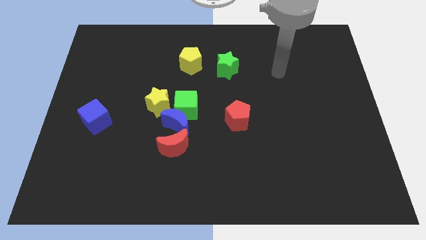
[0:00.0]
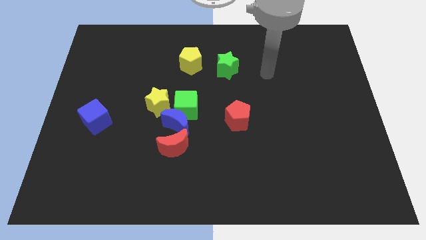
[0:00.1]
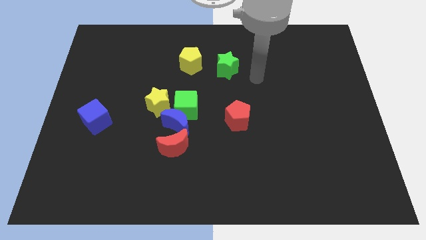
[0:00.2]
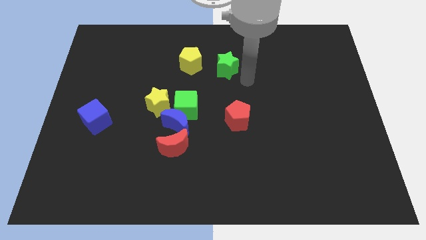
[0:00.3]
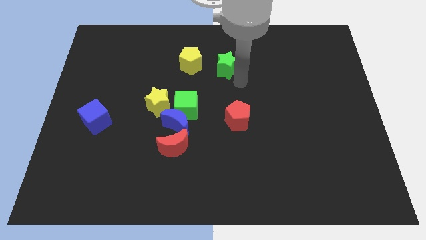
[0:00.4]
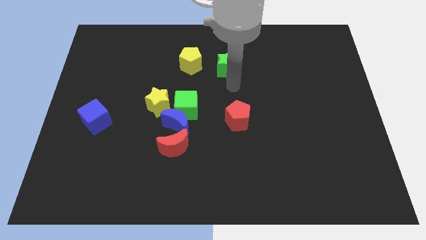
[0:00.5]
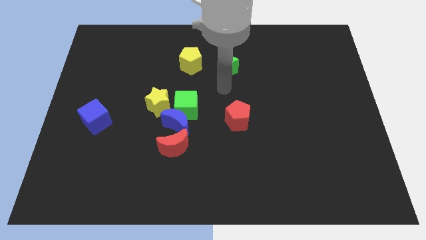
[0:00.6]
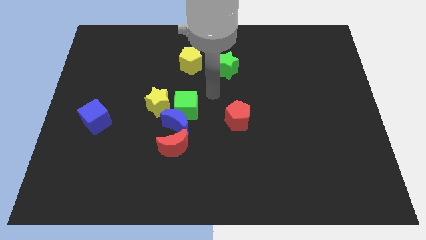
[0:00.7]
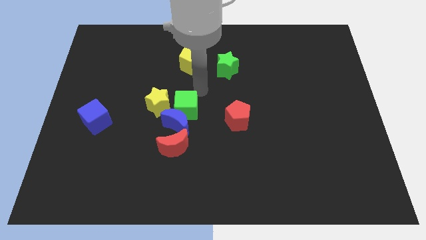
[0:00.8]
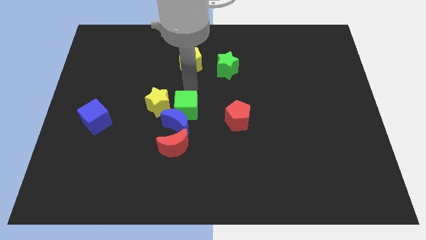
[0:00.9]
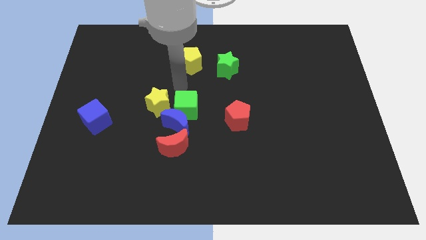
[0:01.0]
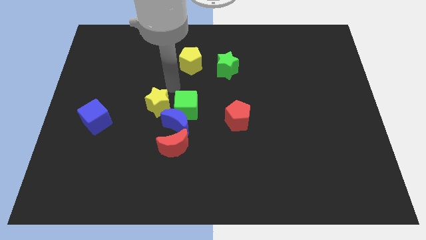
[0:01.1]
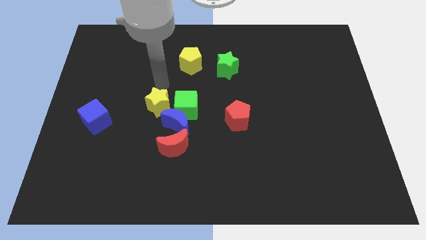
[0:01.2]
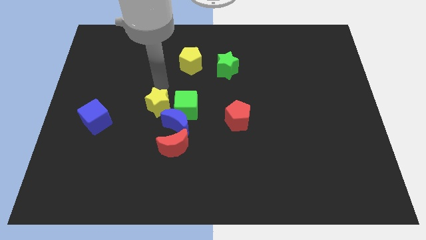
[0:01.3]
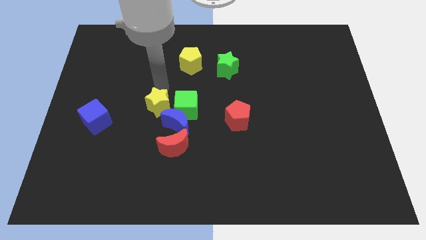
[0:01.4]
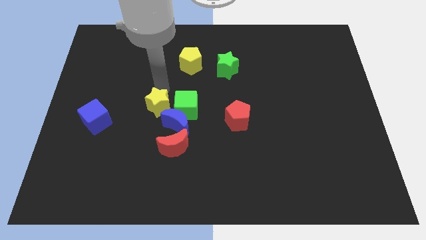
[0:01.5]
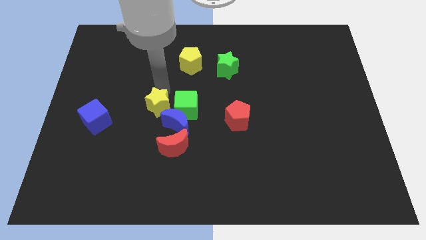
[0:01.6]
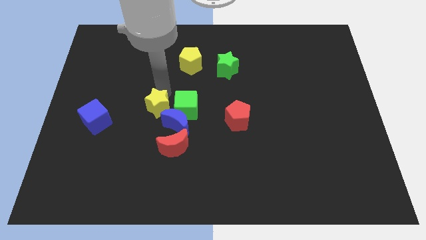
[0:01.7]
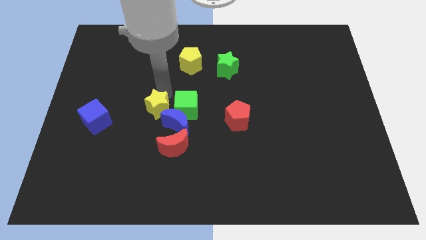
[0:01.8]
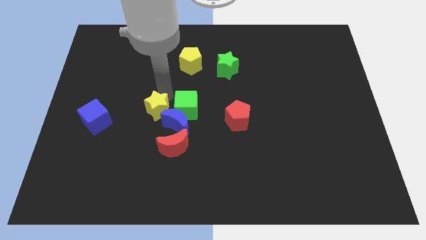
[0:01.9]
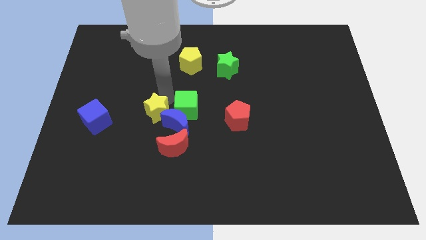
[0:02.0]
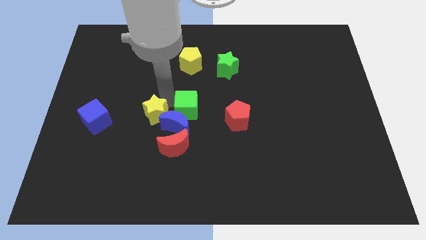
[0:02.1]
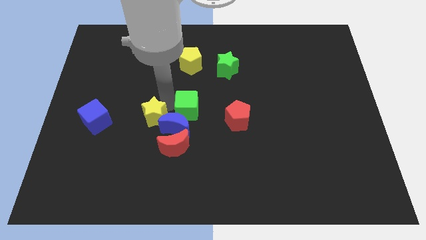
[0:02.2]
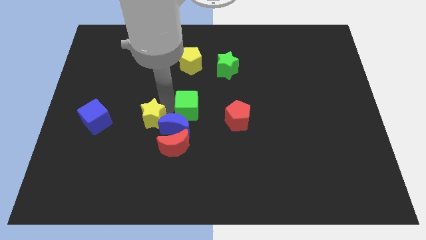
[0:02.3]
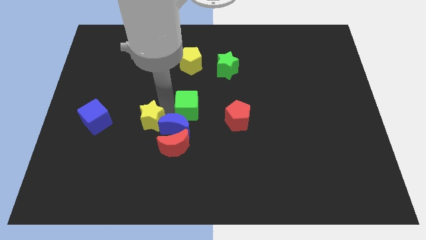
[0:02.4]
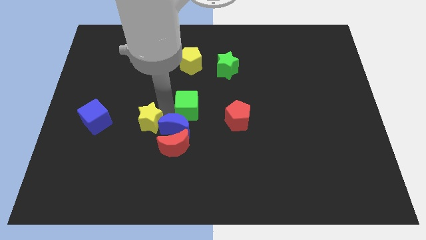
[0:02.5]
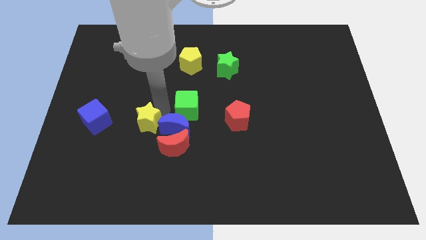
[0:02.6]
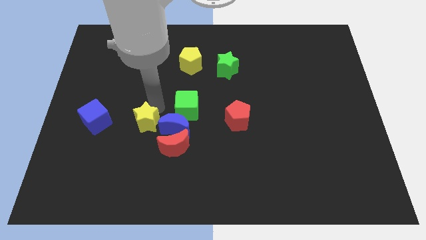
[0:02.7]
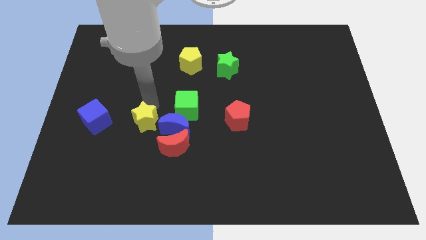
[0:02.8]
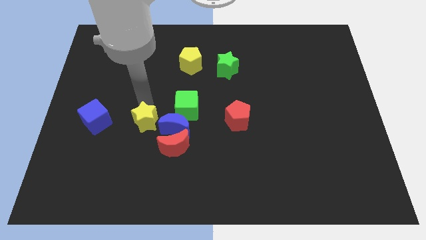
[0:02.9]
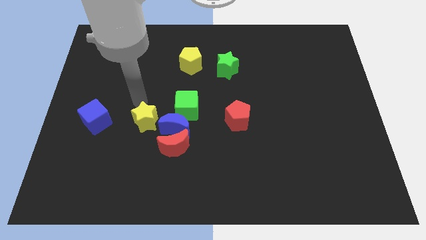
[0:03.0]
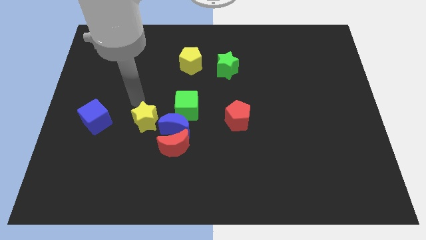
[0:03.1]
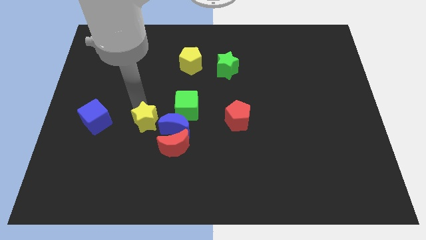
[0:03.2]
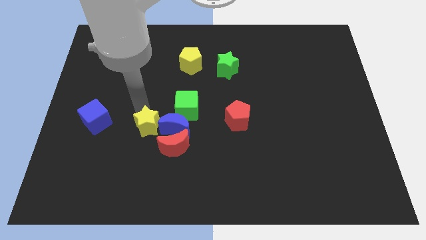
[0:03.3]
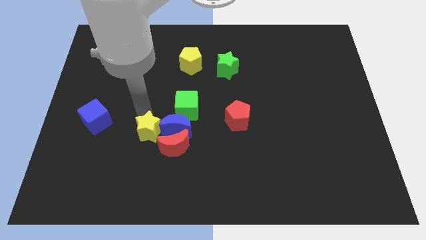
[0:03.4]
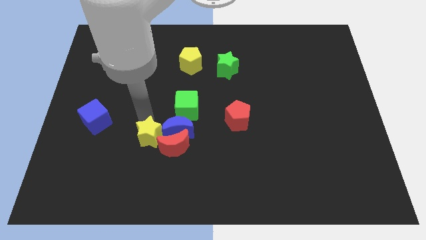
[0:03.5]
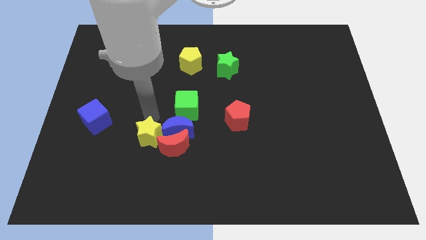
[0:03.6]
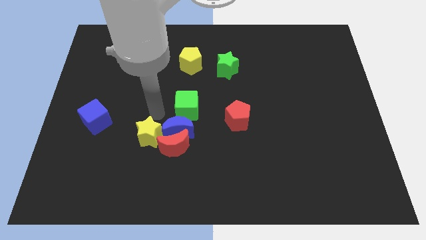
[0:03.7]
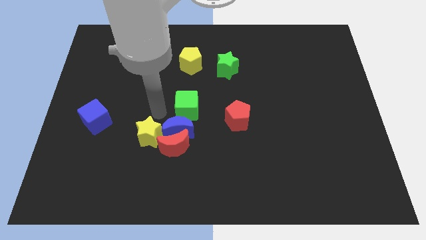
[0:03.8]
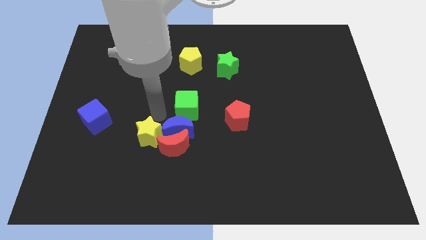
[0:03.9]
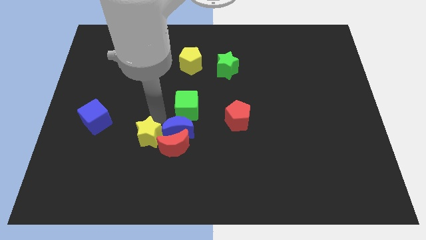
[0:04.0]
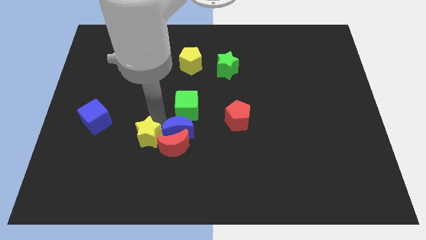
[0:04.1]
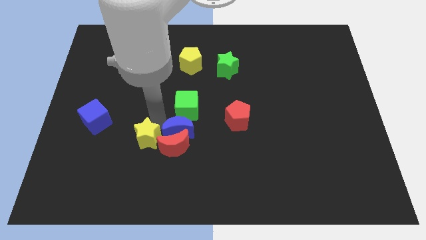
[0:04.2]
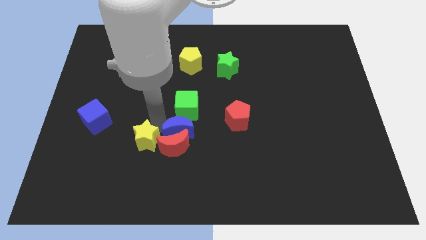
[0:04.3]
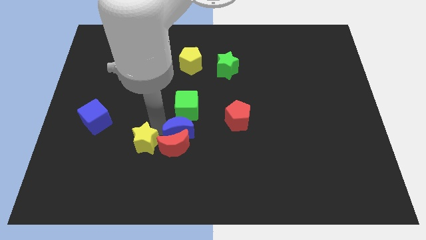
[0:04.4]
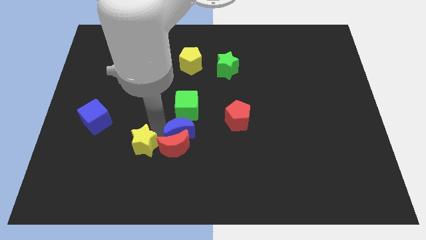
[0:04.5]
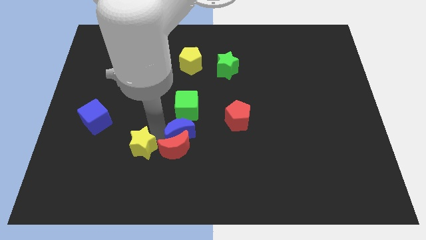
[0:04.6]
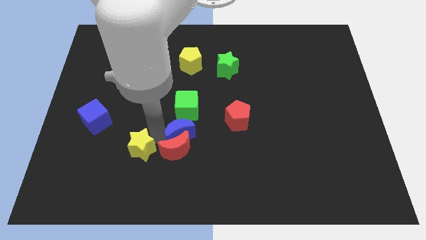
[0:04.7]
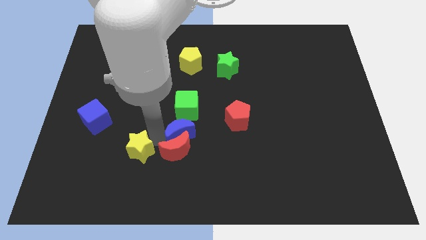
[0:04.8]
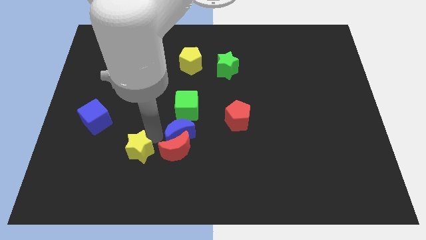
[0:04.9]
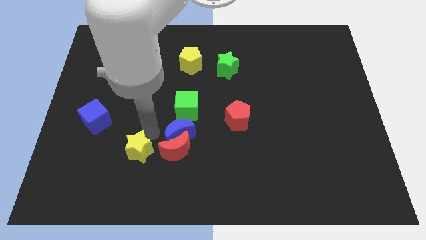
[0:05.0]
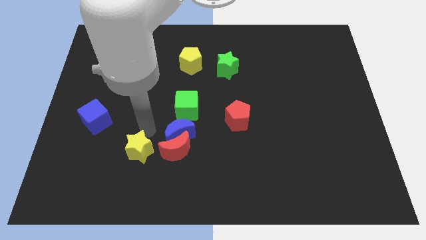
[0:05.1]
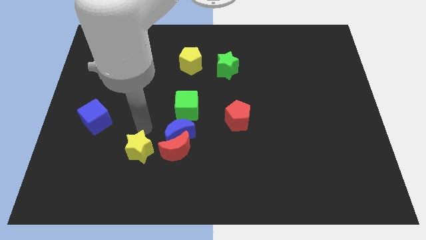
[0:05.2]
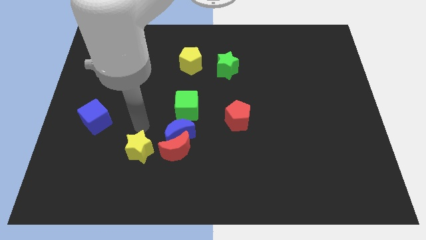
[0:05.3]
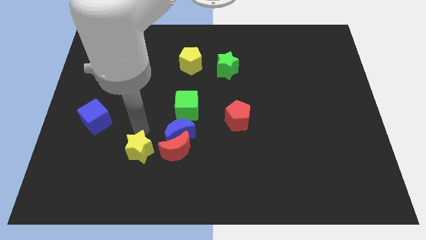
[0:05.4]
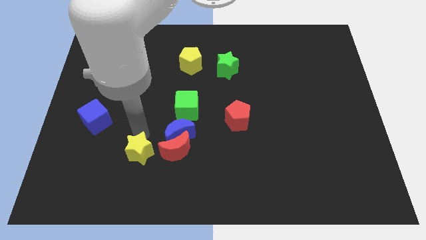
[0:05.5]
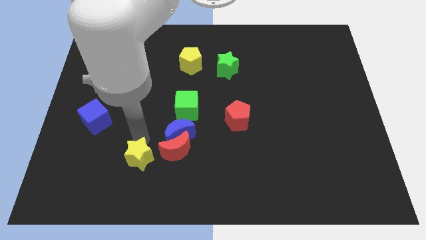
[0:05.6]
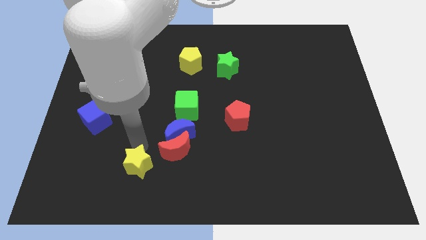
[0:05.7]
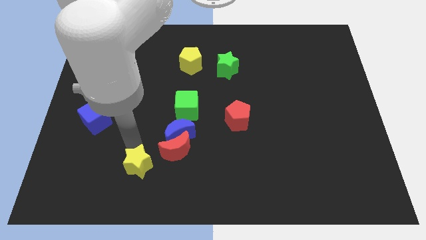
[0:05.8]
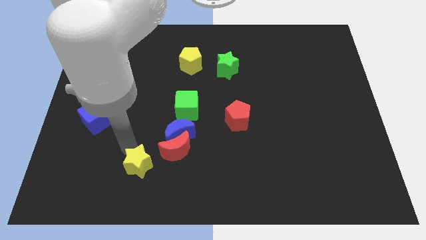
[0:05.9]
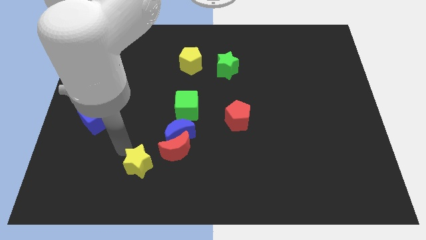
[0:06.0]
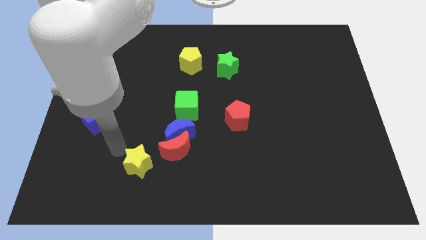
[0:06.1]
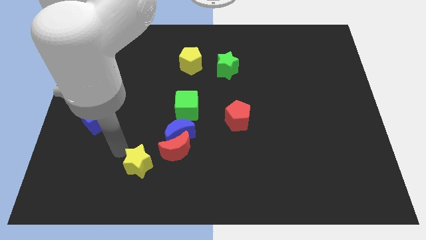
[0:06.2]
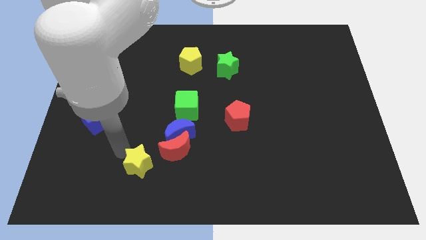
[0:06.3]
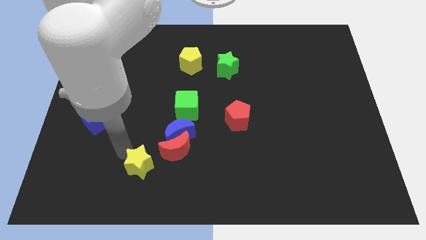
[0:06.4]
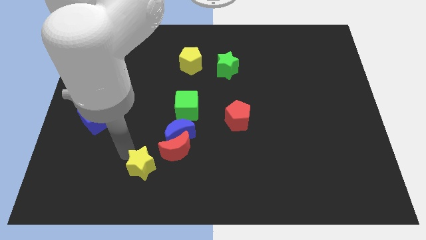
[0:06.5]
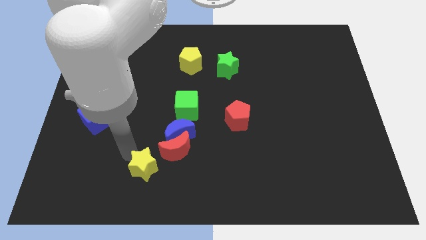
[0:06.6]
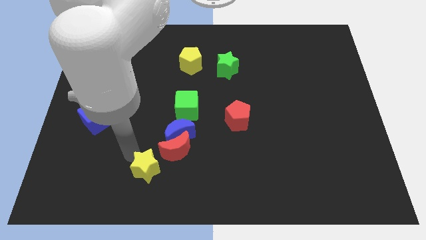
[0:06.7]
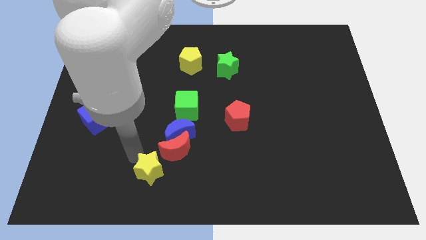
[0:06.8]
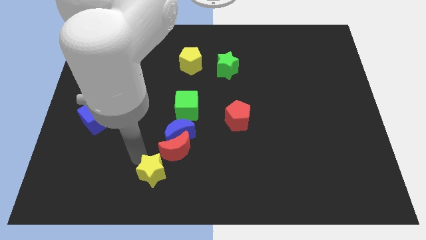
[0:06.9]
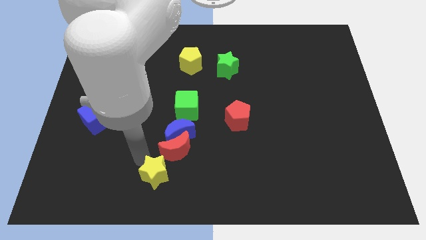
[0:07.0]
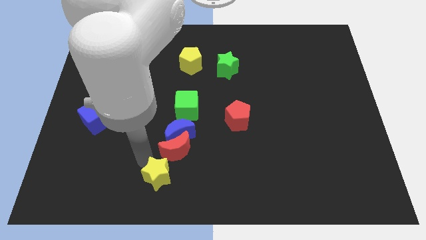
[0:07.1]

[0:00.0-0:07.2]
move the yellow star to the bottom
